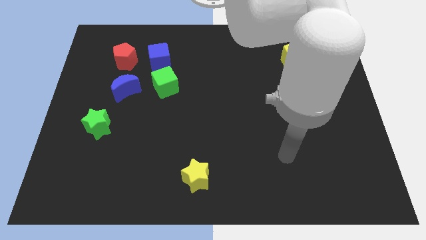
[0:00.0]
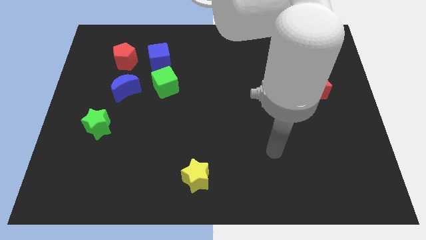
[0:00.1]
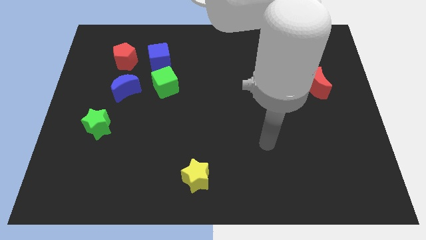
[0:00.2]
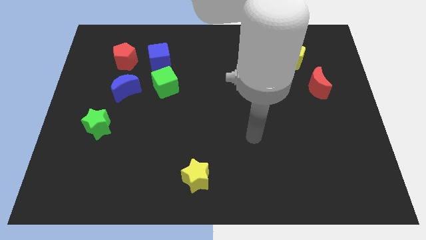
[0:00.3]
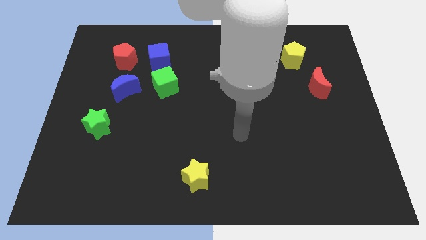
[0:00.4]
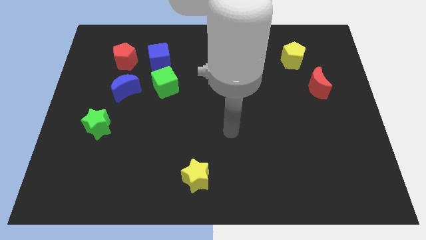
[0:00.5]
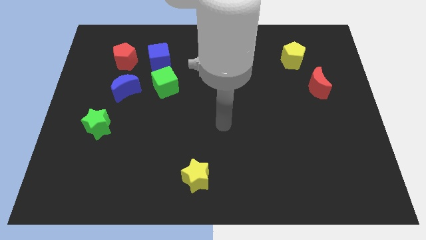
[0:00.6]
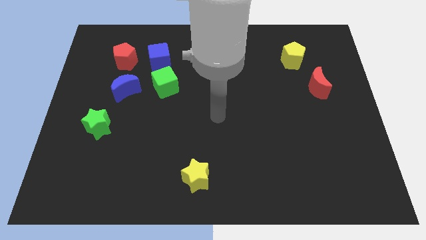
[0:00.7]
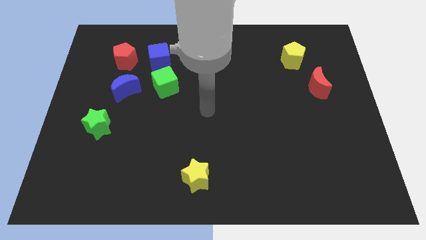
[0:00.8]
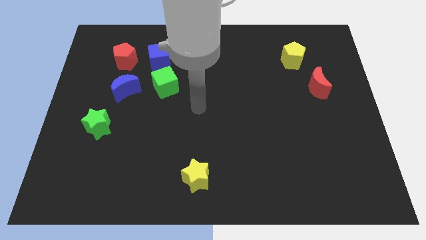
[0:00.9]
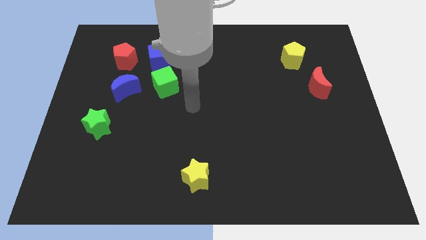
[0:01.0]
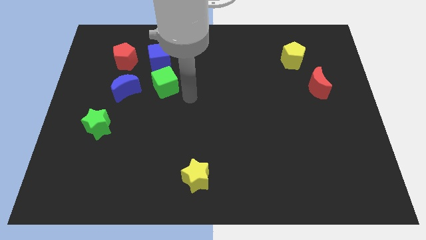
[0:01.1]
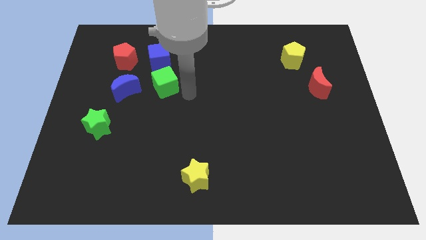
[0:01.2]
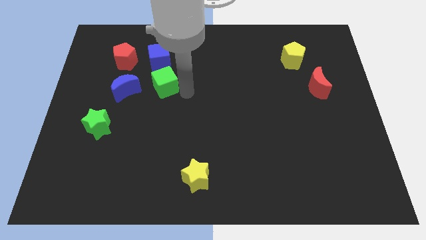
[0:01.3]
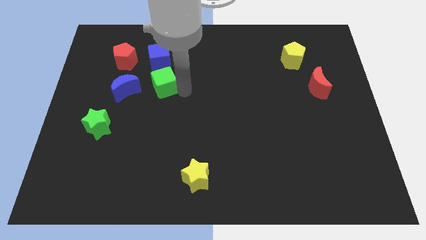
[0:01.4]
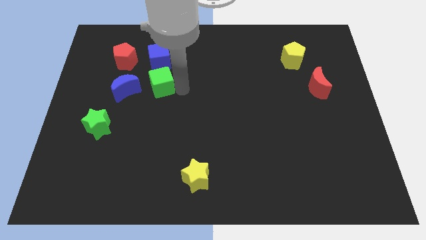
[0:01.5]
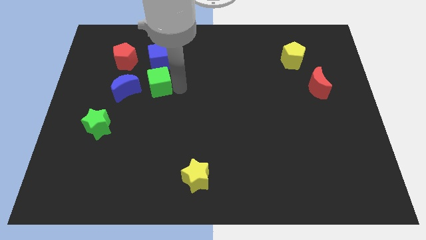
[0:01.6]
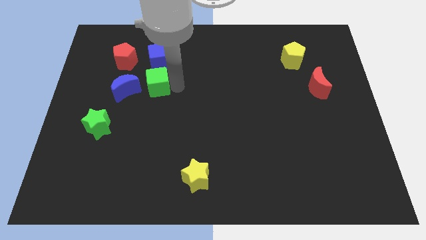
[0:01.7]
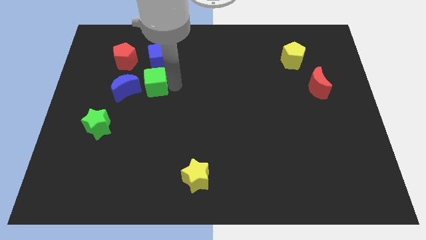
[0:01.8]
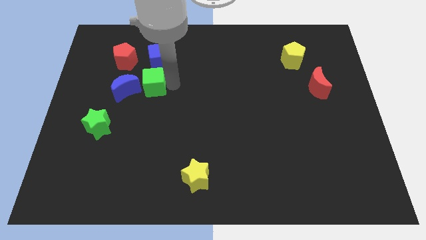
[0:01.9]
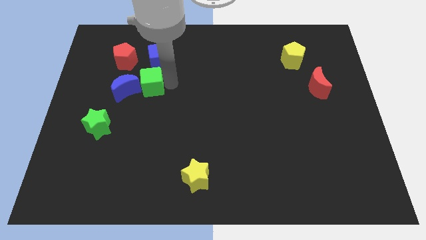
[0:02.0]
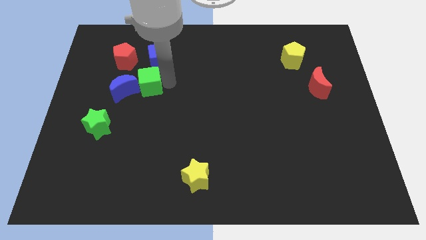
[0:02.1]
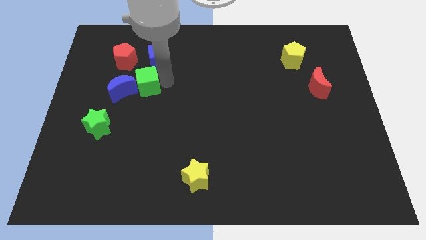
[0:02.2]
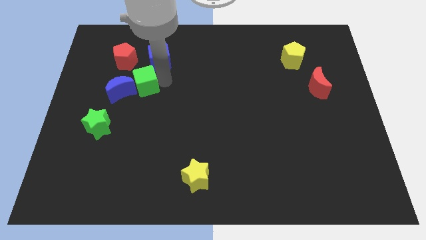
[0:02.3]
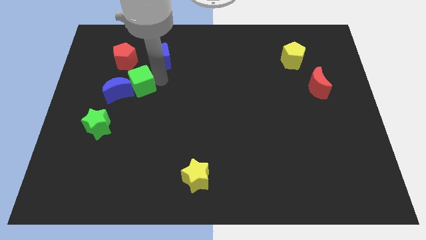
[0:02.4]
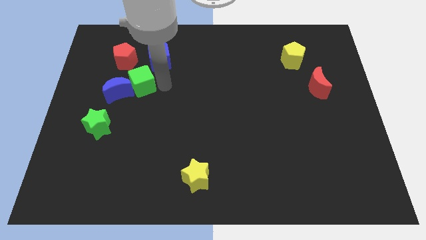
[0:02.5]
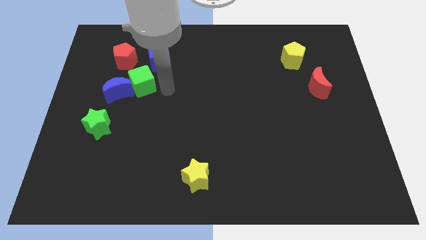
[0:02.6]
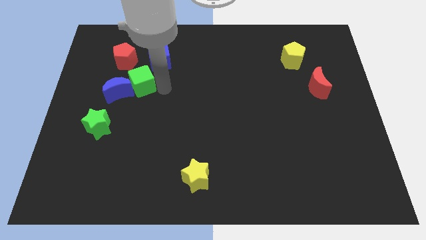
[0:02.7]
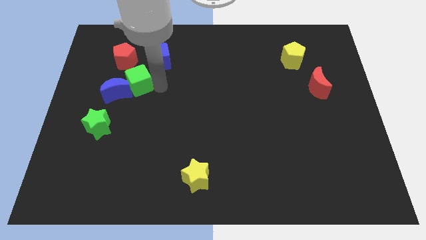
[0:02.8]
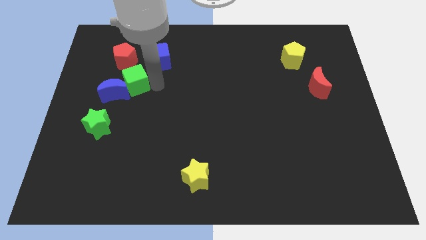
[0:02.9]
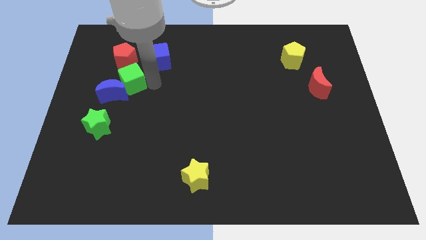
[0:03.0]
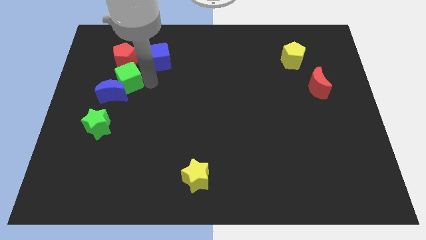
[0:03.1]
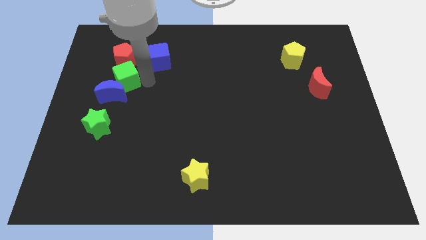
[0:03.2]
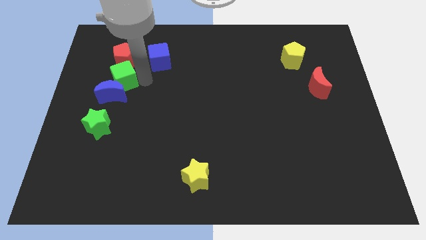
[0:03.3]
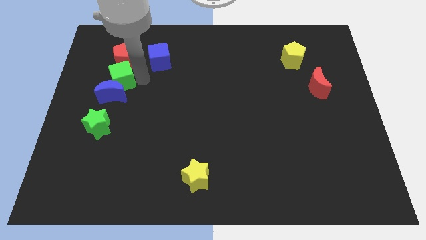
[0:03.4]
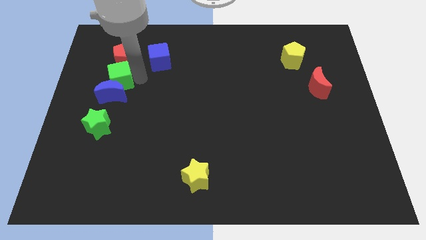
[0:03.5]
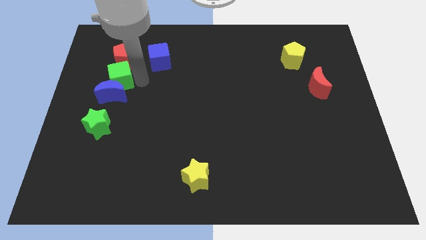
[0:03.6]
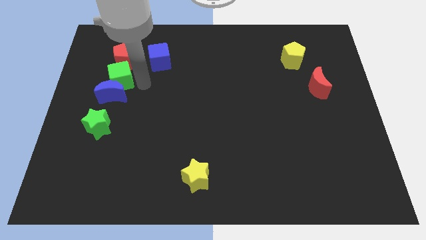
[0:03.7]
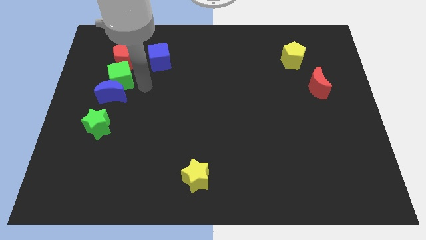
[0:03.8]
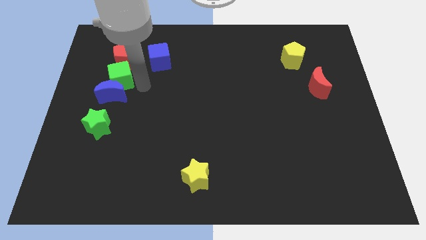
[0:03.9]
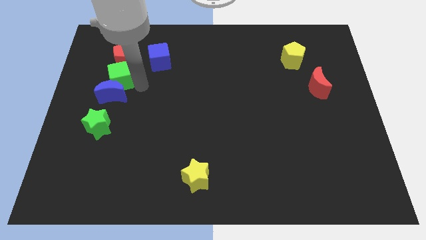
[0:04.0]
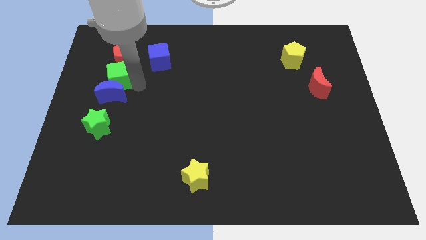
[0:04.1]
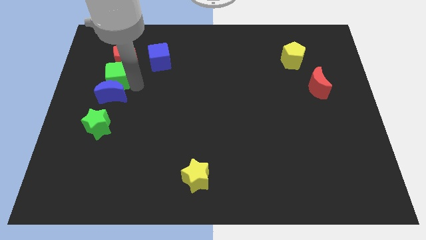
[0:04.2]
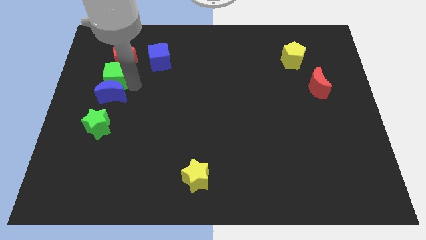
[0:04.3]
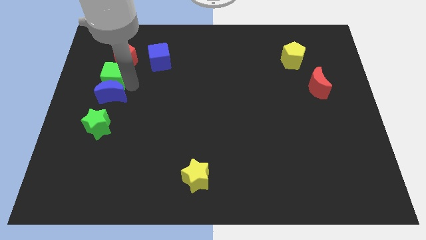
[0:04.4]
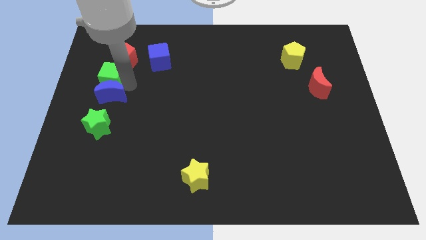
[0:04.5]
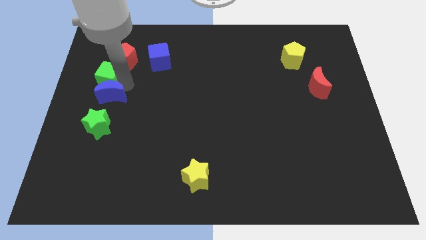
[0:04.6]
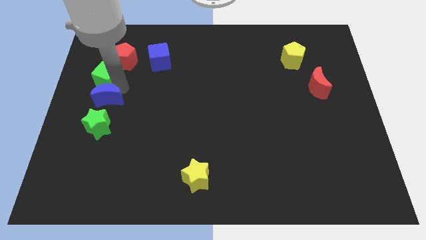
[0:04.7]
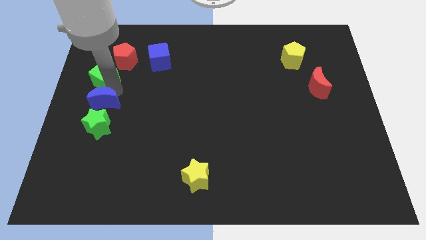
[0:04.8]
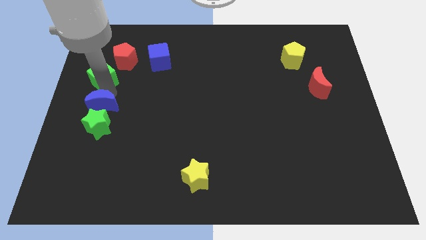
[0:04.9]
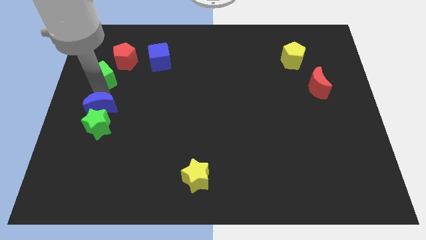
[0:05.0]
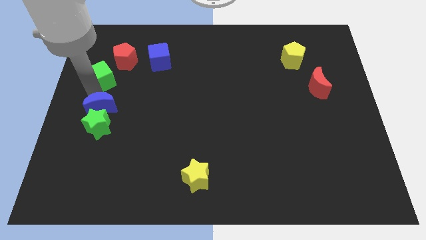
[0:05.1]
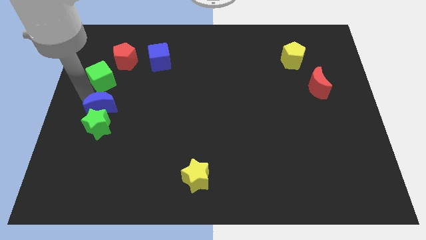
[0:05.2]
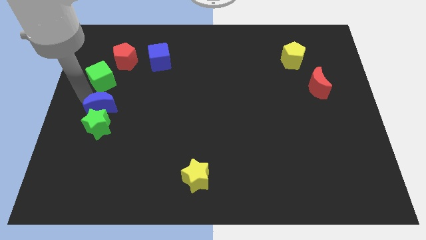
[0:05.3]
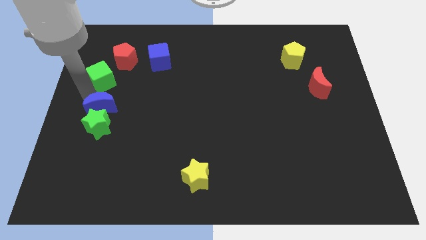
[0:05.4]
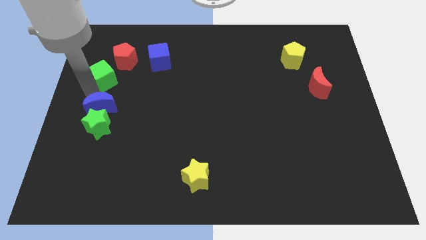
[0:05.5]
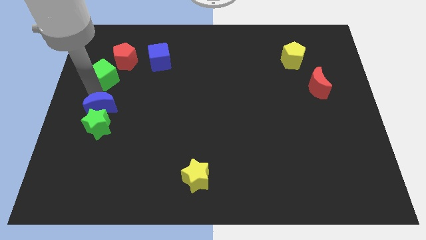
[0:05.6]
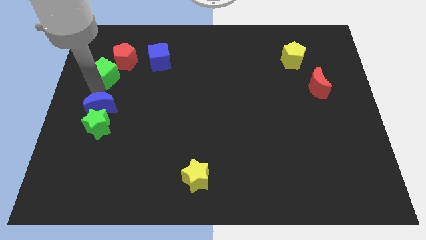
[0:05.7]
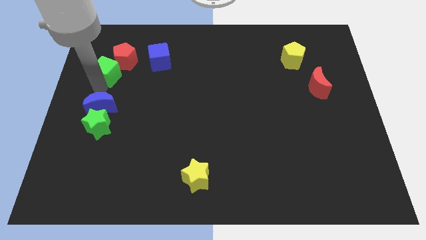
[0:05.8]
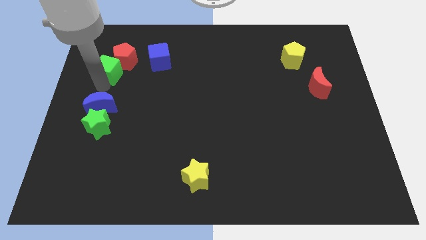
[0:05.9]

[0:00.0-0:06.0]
move the green cube to the left of the blue cube

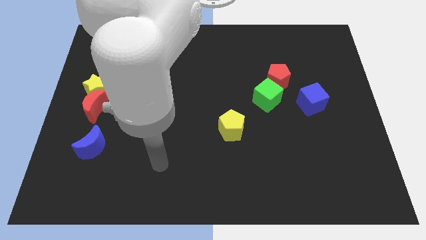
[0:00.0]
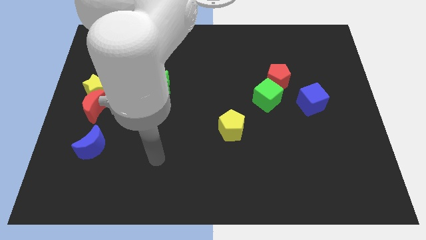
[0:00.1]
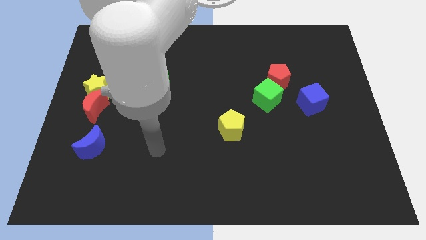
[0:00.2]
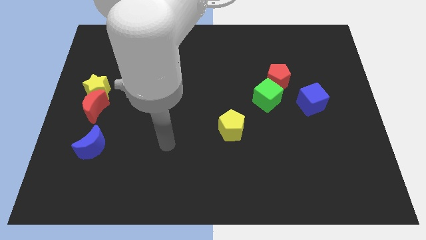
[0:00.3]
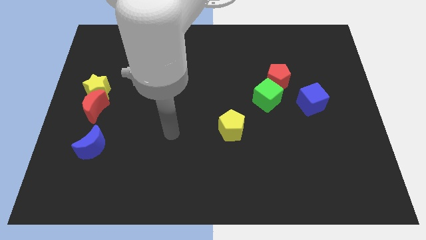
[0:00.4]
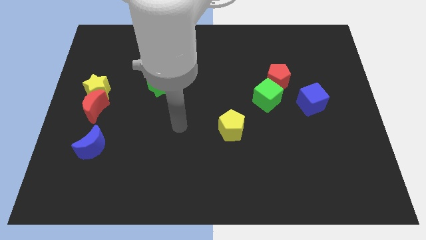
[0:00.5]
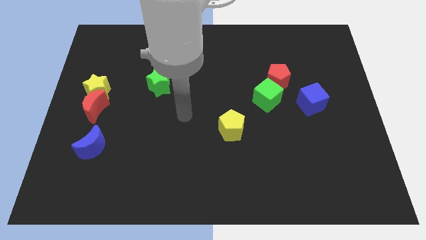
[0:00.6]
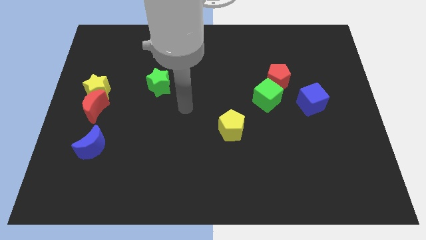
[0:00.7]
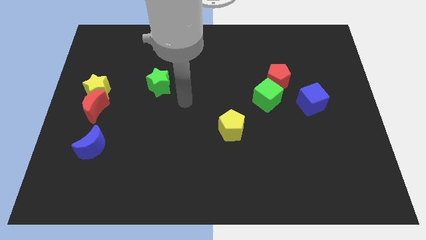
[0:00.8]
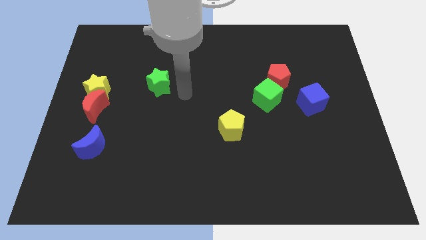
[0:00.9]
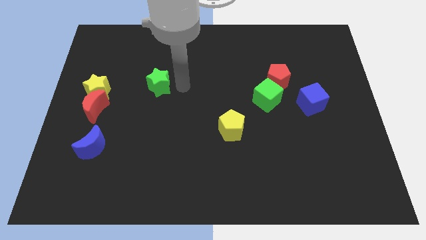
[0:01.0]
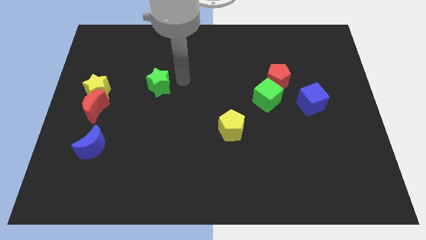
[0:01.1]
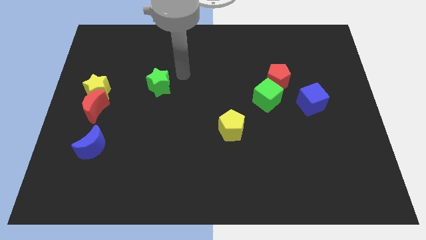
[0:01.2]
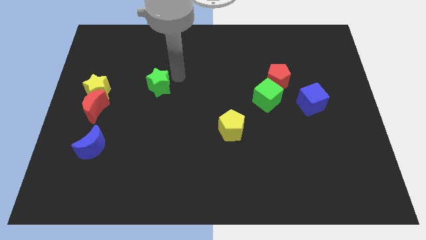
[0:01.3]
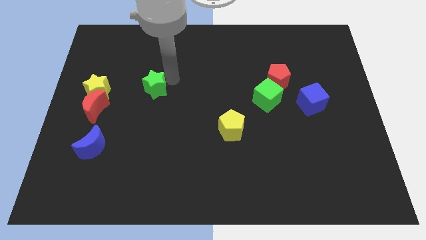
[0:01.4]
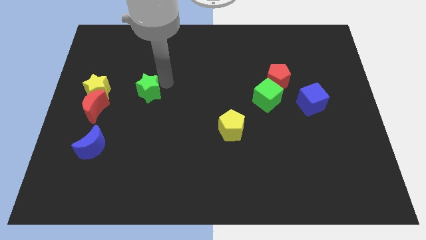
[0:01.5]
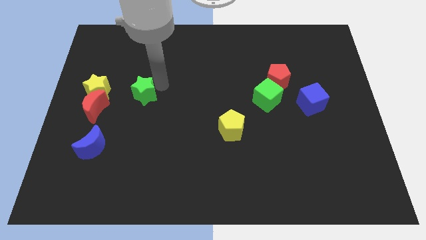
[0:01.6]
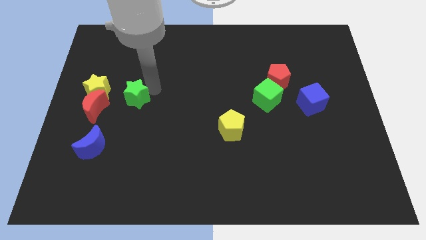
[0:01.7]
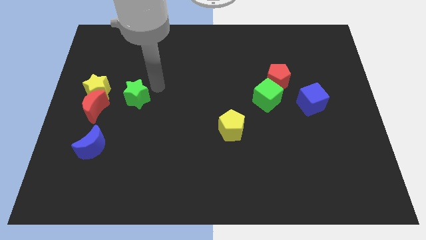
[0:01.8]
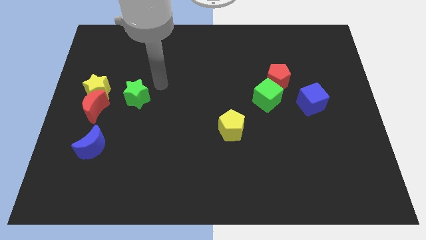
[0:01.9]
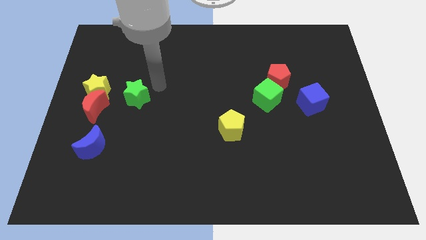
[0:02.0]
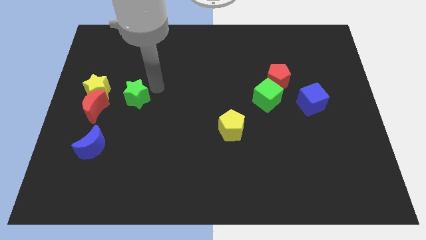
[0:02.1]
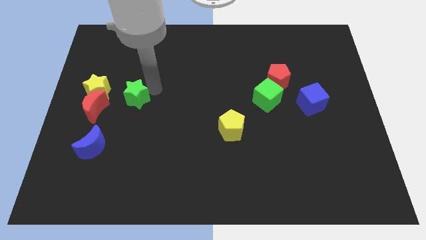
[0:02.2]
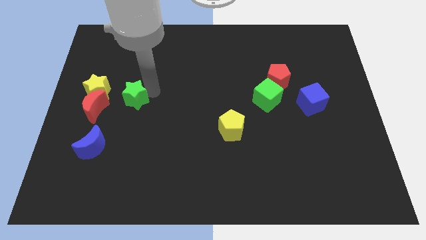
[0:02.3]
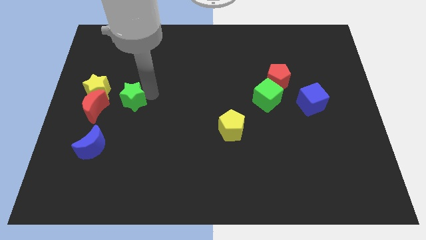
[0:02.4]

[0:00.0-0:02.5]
move the green star to the bottom right of the yellow star
